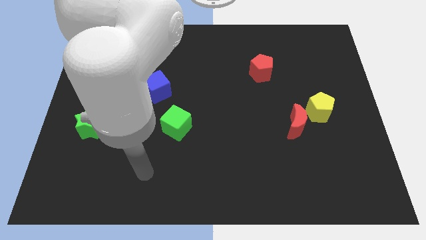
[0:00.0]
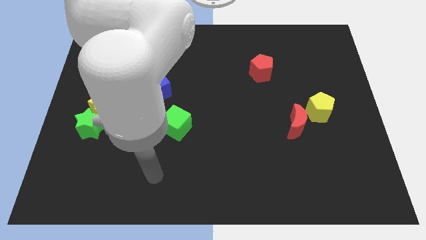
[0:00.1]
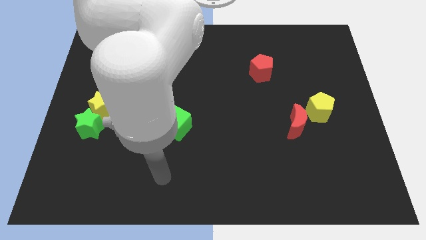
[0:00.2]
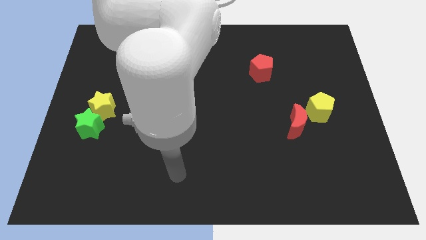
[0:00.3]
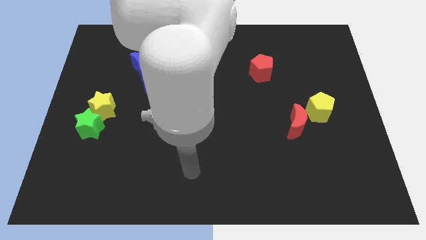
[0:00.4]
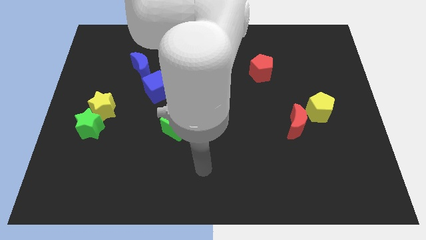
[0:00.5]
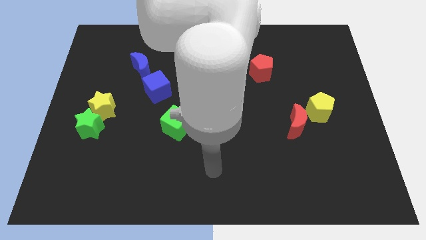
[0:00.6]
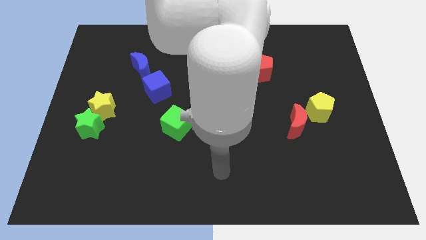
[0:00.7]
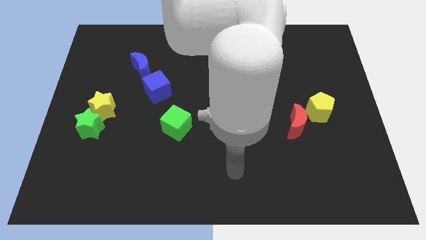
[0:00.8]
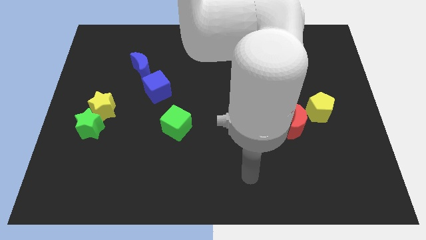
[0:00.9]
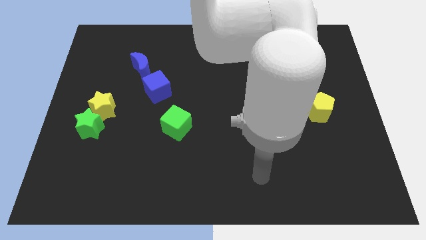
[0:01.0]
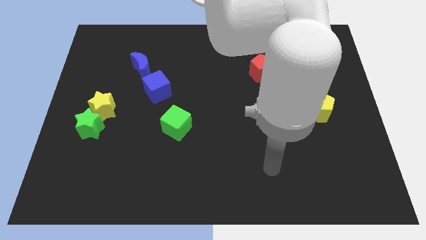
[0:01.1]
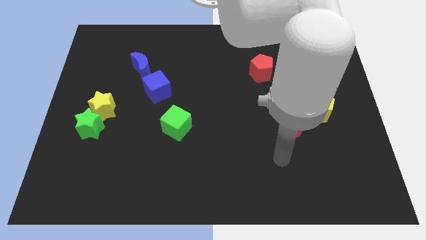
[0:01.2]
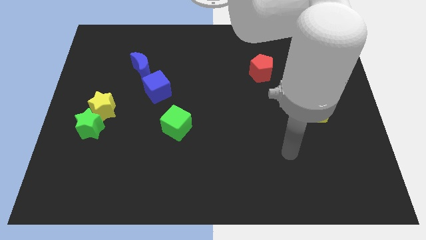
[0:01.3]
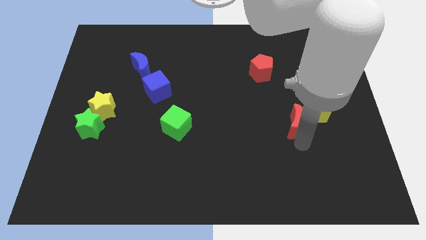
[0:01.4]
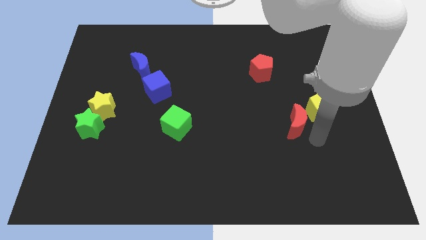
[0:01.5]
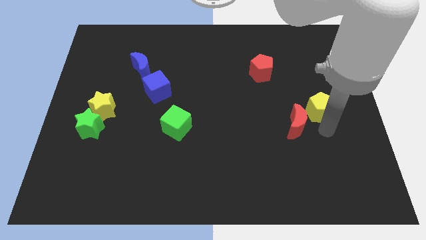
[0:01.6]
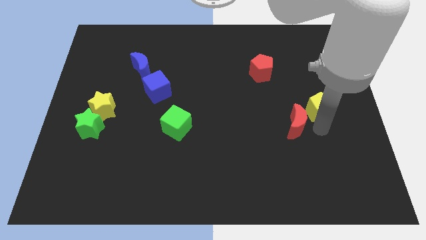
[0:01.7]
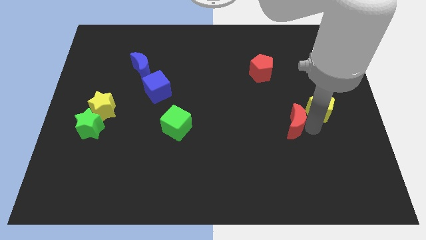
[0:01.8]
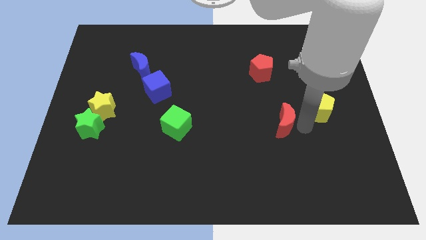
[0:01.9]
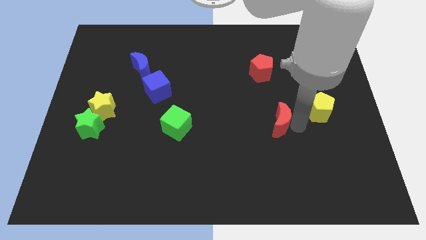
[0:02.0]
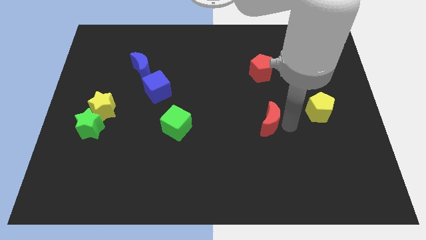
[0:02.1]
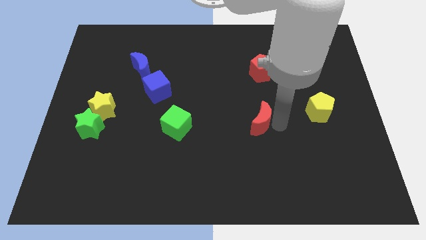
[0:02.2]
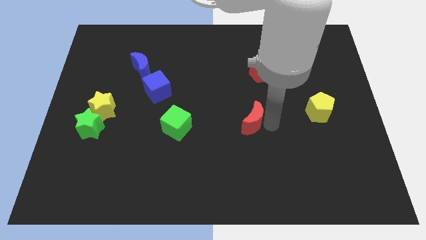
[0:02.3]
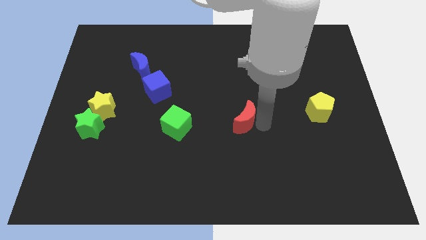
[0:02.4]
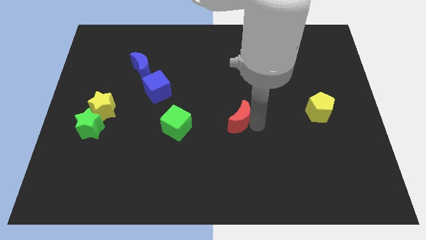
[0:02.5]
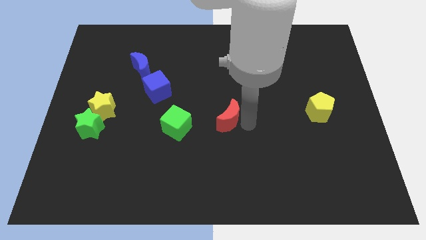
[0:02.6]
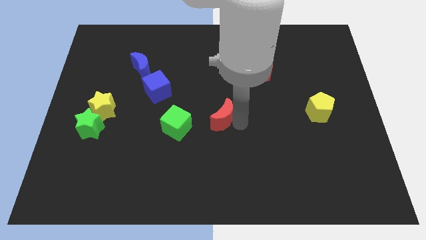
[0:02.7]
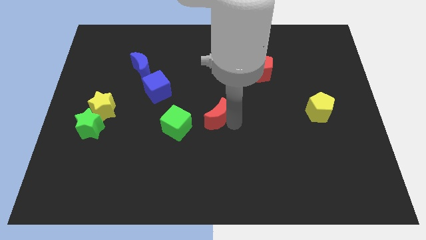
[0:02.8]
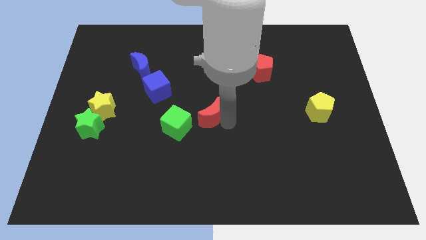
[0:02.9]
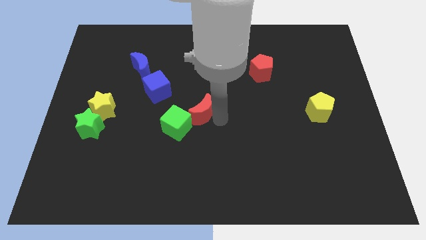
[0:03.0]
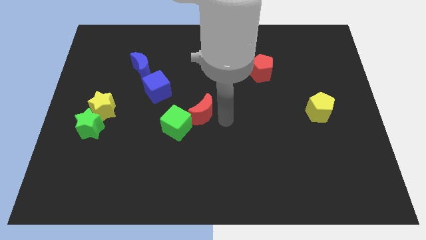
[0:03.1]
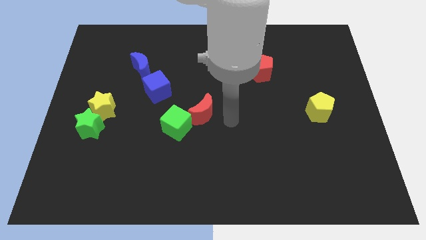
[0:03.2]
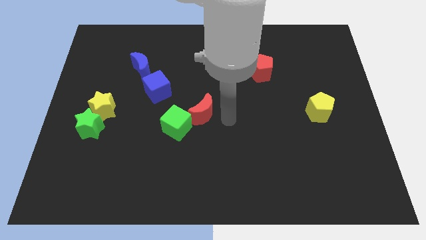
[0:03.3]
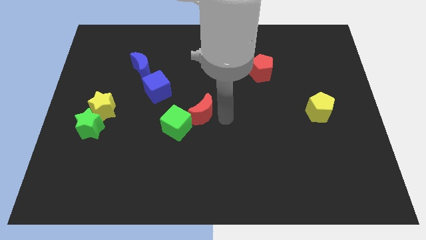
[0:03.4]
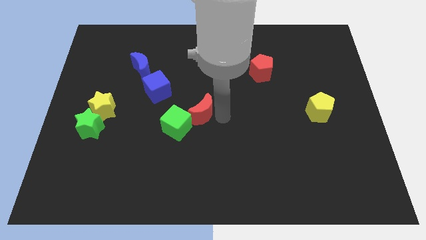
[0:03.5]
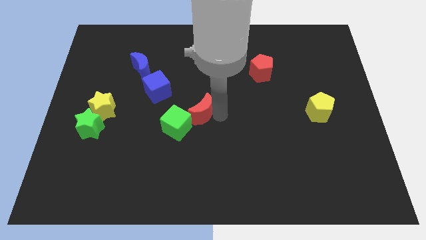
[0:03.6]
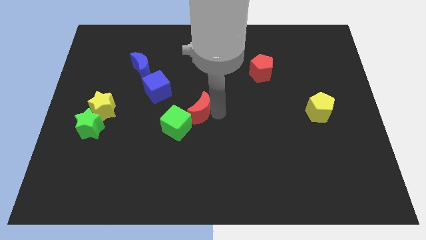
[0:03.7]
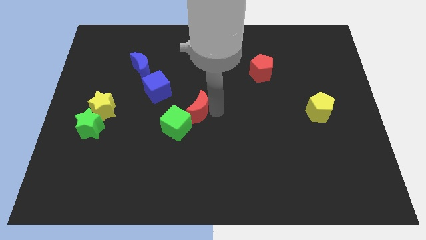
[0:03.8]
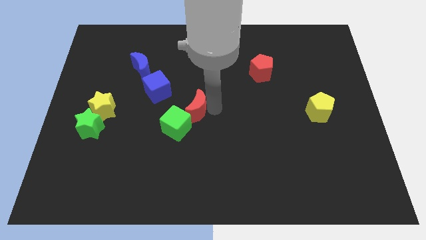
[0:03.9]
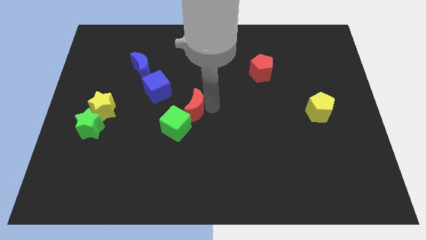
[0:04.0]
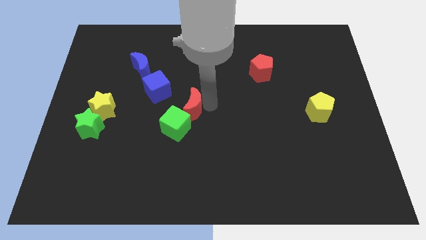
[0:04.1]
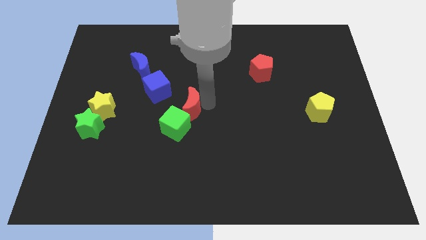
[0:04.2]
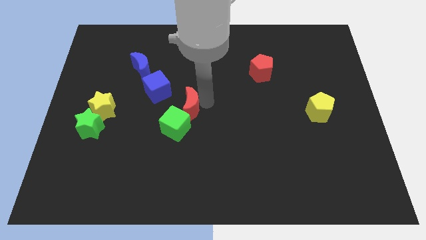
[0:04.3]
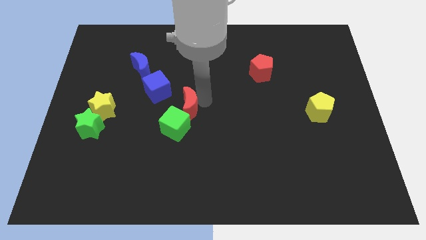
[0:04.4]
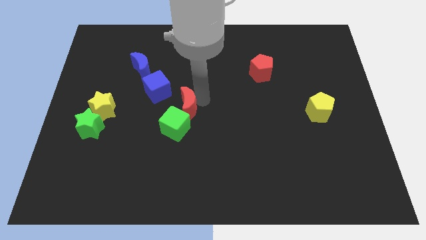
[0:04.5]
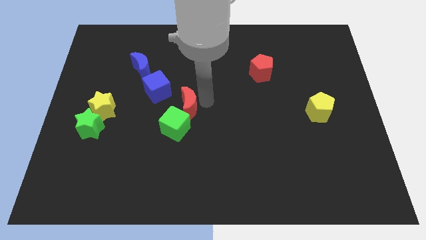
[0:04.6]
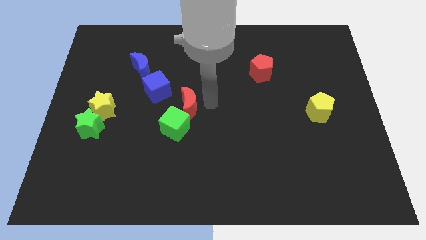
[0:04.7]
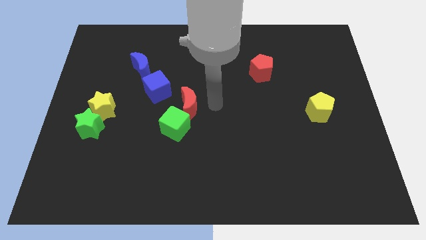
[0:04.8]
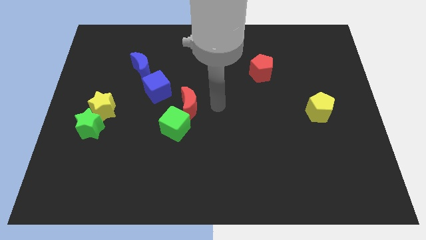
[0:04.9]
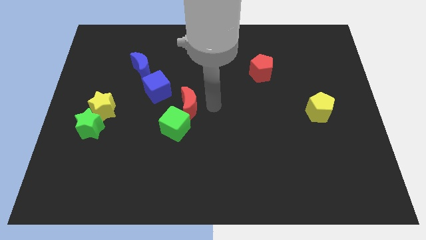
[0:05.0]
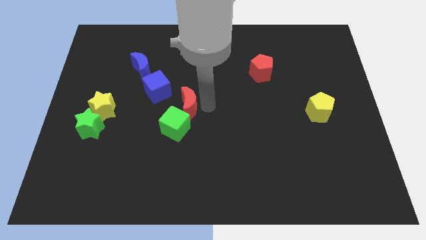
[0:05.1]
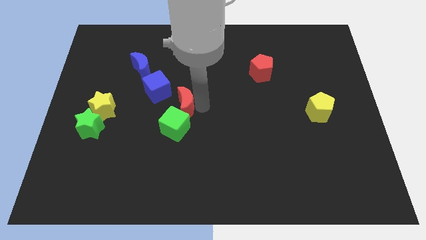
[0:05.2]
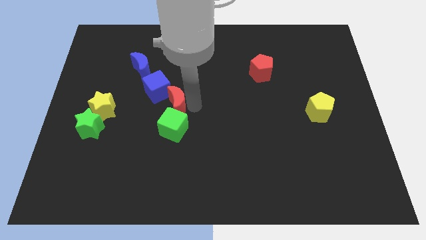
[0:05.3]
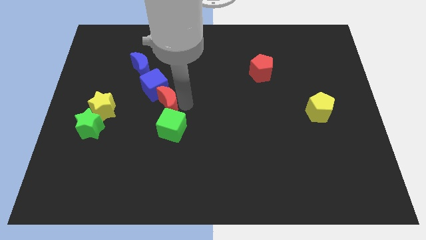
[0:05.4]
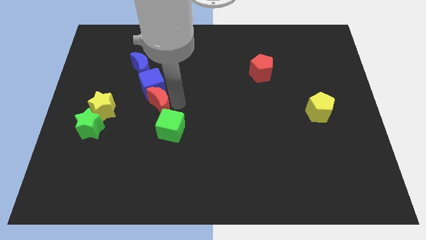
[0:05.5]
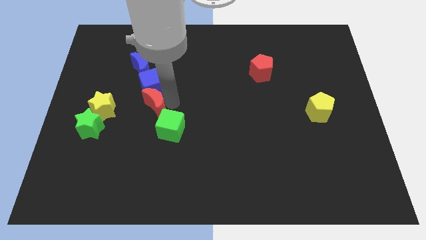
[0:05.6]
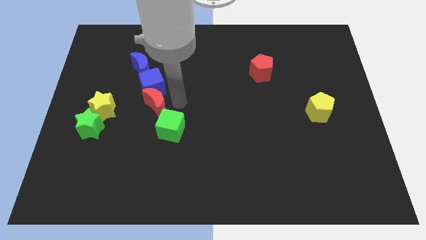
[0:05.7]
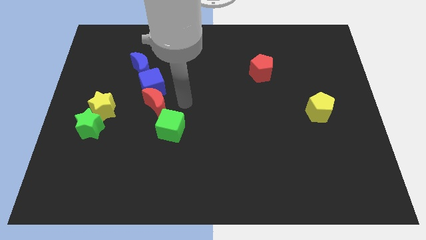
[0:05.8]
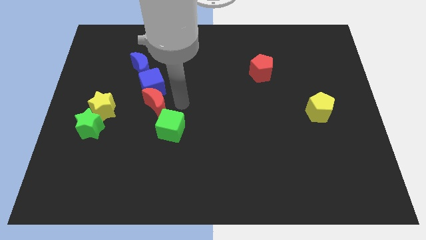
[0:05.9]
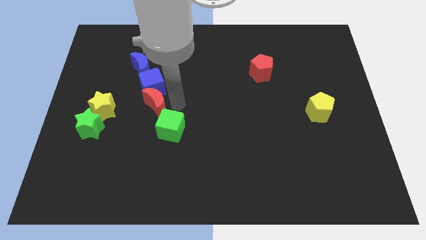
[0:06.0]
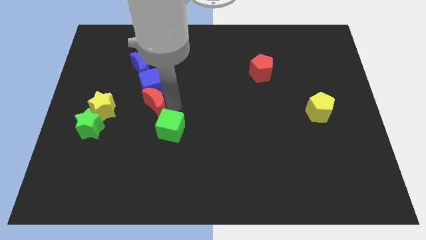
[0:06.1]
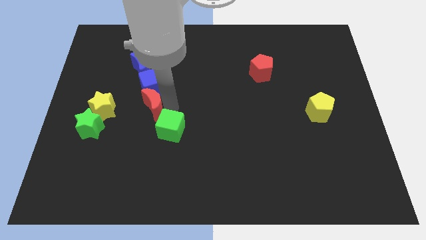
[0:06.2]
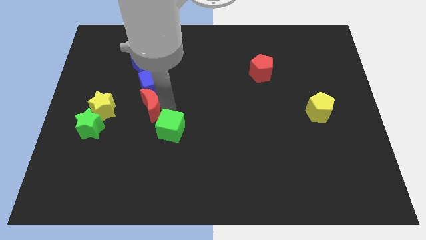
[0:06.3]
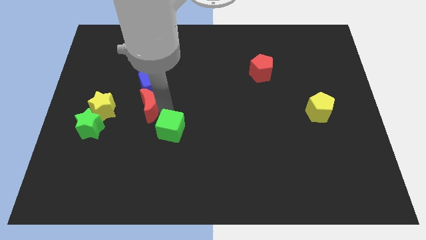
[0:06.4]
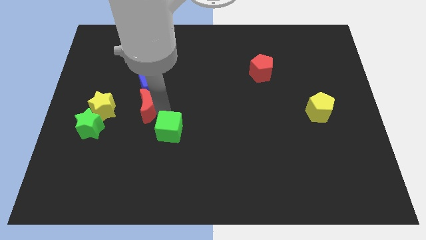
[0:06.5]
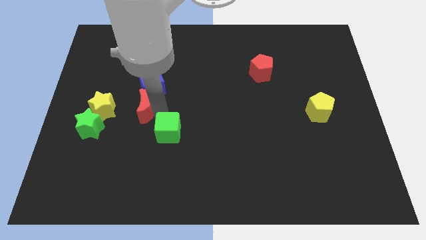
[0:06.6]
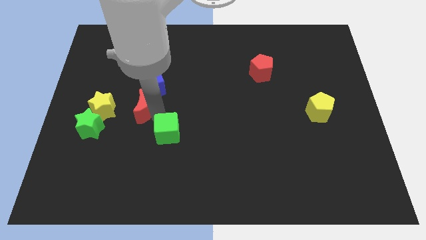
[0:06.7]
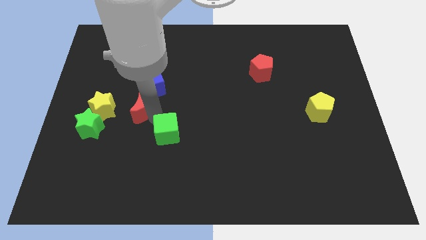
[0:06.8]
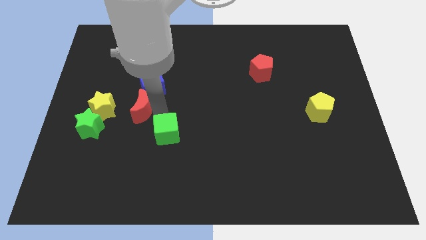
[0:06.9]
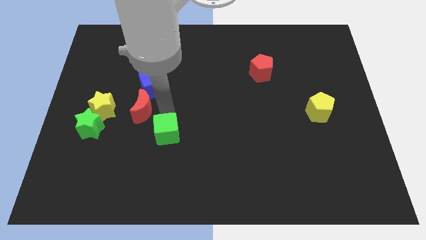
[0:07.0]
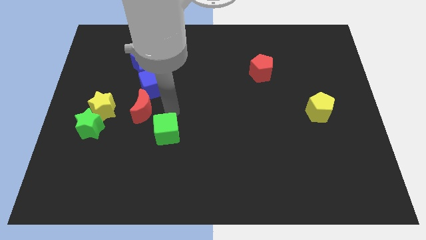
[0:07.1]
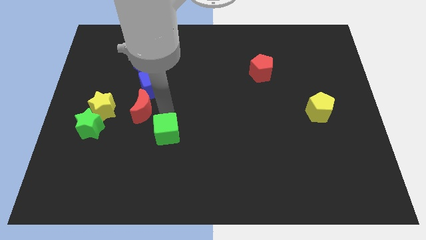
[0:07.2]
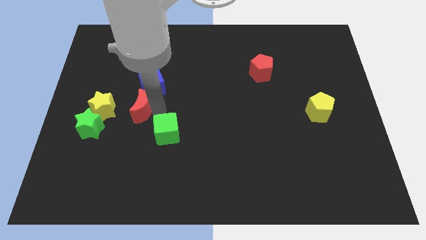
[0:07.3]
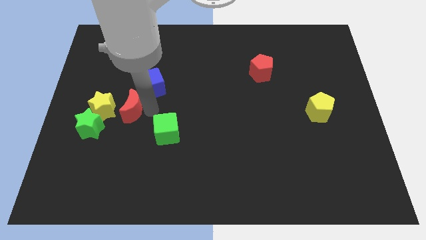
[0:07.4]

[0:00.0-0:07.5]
push the red moon to the top right of the green star

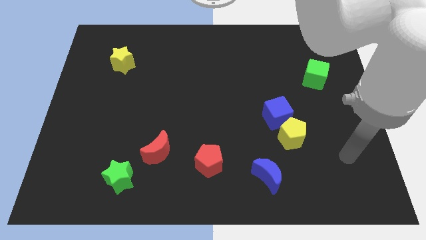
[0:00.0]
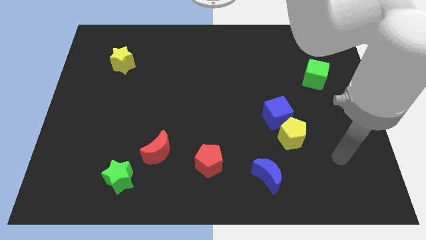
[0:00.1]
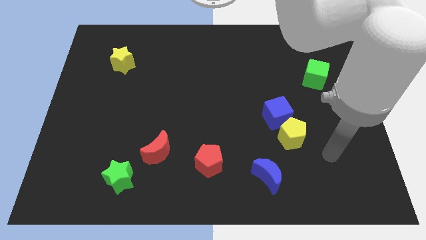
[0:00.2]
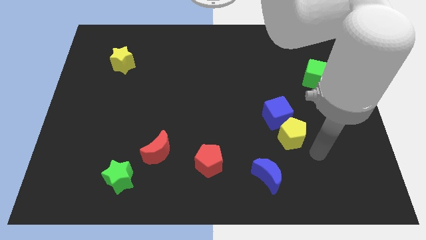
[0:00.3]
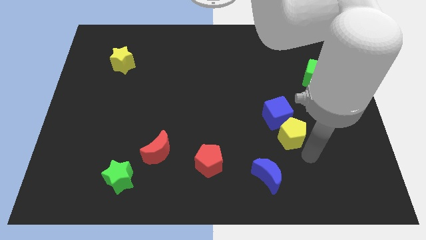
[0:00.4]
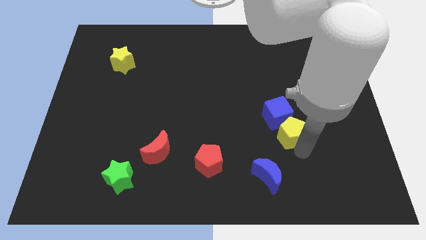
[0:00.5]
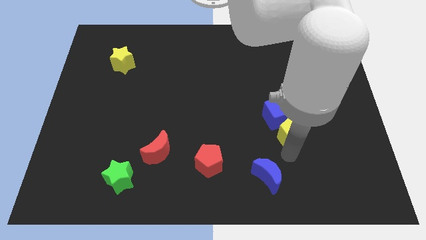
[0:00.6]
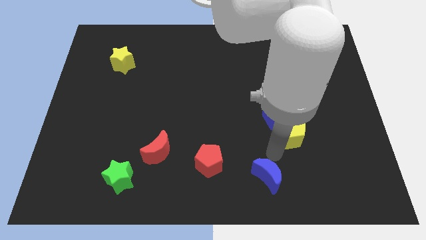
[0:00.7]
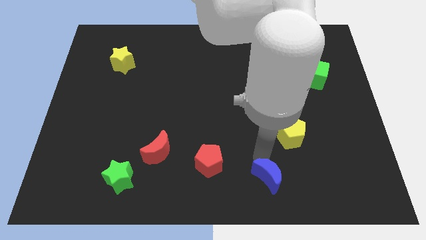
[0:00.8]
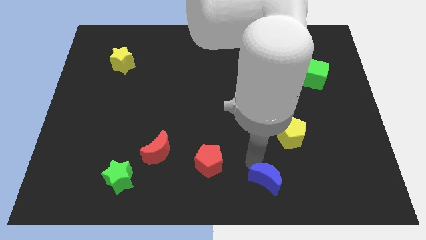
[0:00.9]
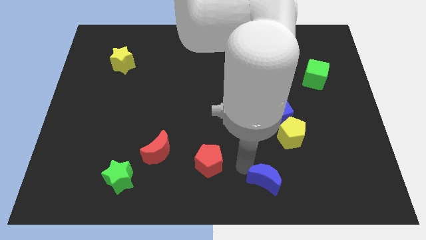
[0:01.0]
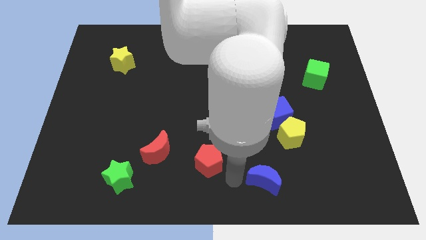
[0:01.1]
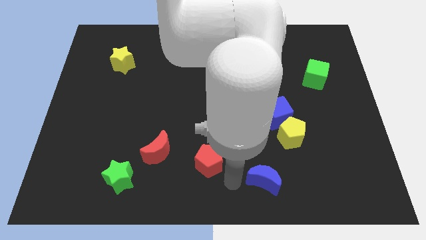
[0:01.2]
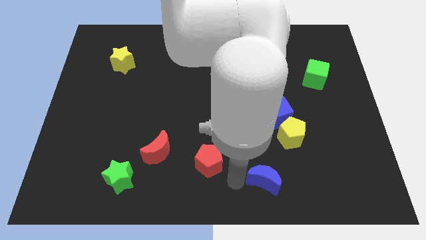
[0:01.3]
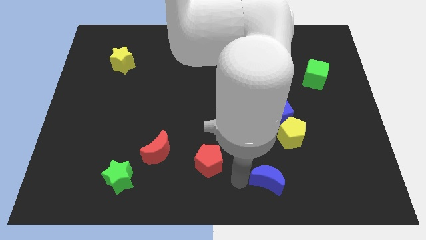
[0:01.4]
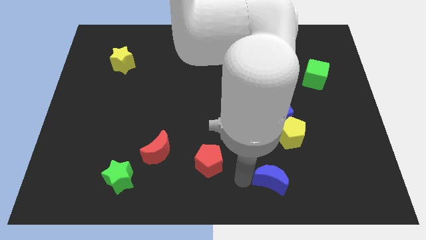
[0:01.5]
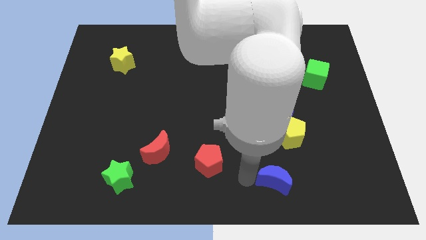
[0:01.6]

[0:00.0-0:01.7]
slide the blue moon to the bottom side of the yellow pentagon
